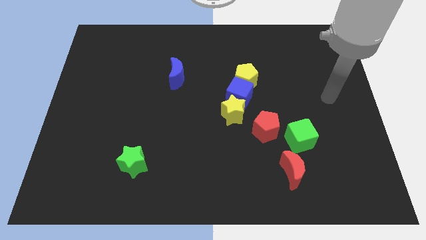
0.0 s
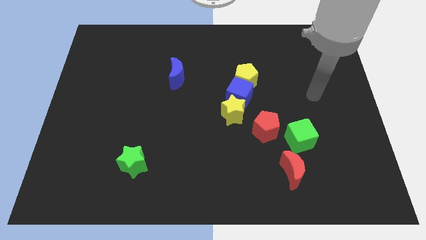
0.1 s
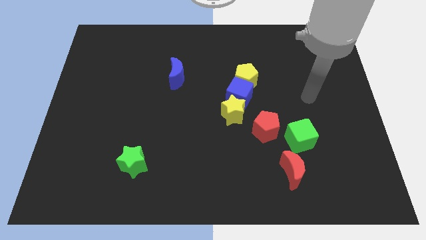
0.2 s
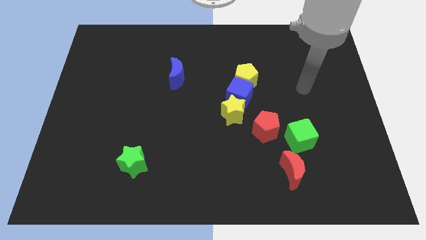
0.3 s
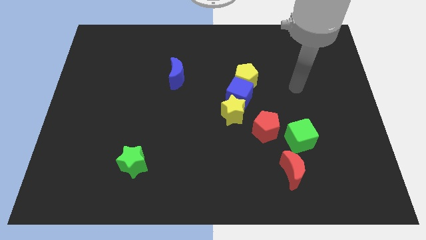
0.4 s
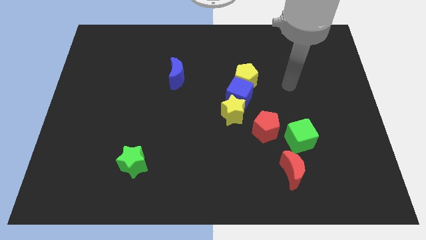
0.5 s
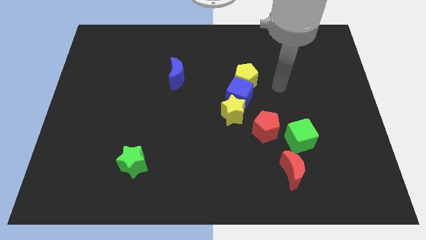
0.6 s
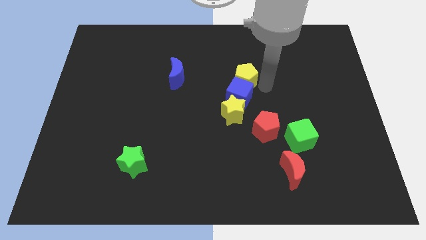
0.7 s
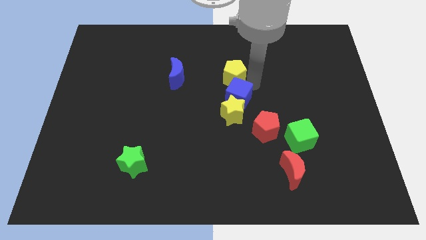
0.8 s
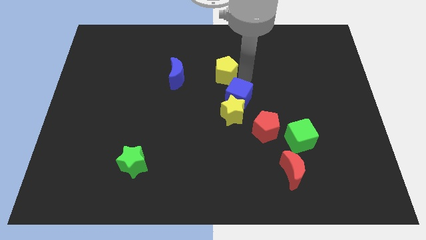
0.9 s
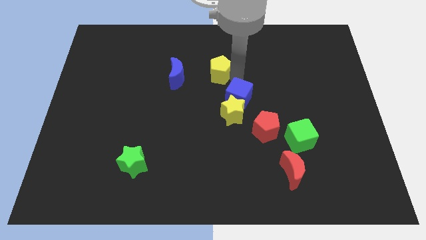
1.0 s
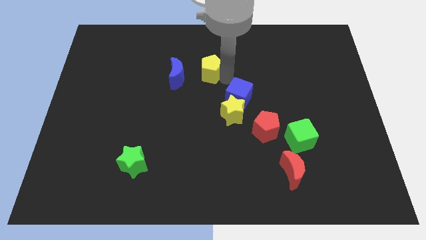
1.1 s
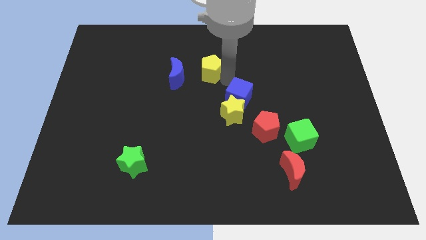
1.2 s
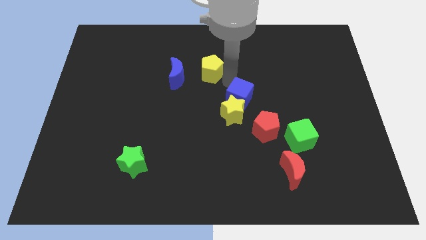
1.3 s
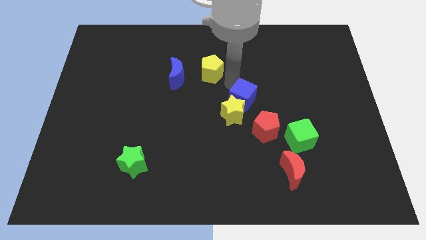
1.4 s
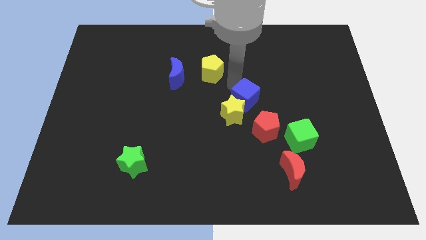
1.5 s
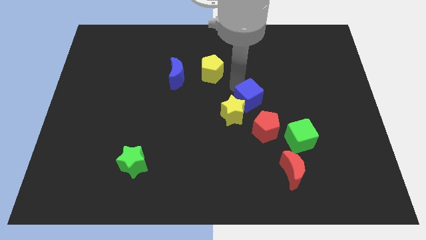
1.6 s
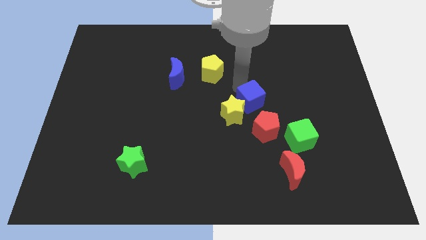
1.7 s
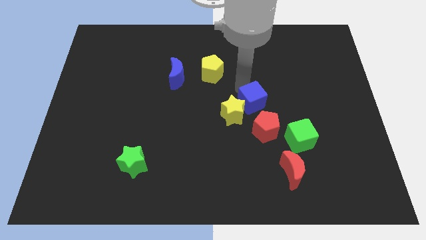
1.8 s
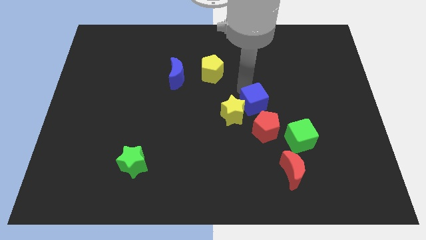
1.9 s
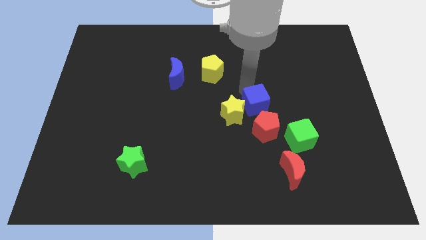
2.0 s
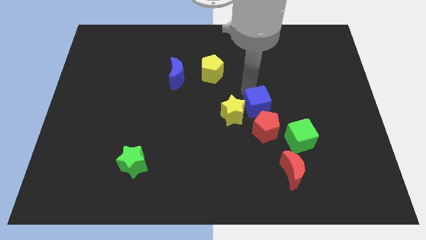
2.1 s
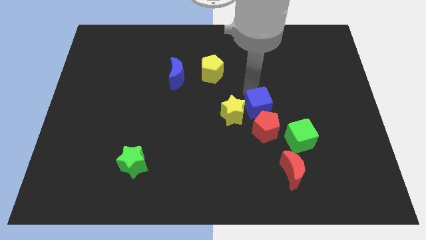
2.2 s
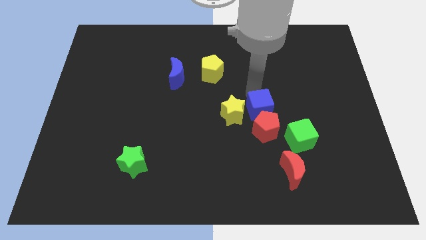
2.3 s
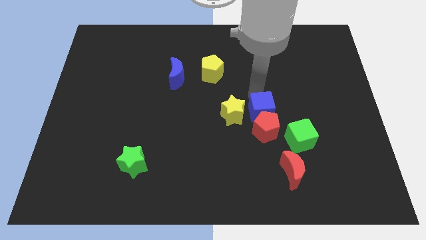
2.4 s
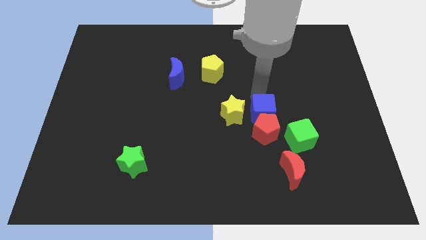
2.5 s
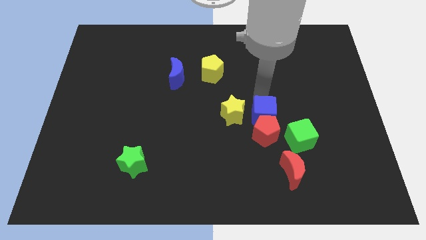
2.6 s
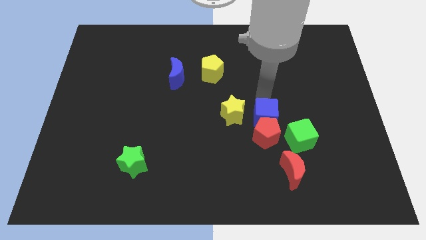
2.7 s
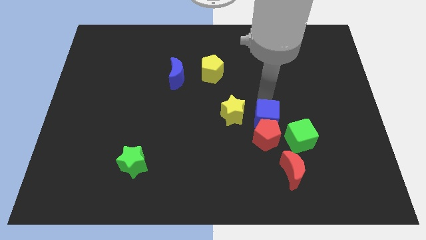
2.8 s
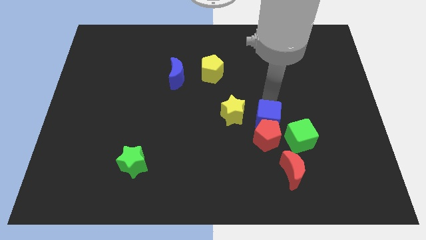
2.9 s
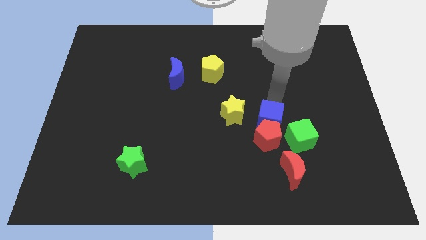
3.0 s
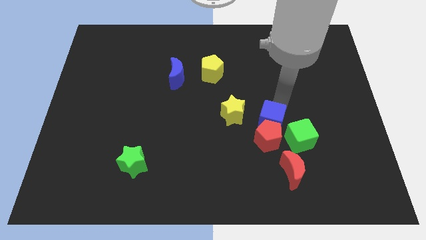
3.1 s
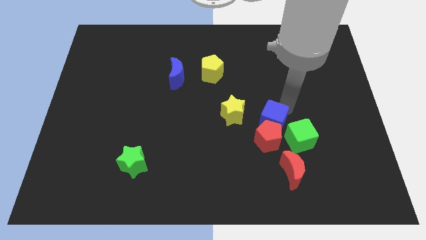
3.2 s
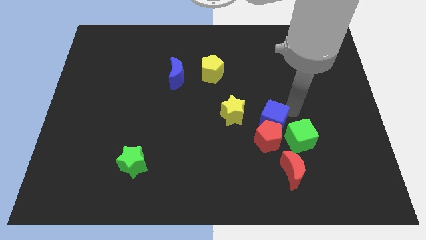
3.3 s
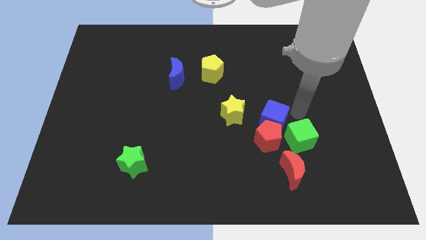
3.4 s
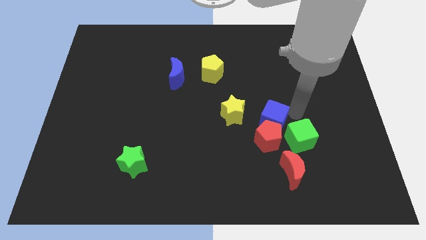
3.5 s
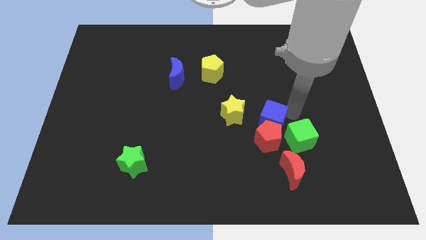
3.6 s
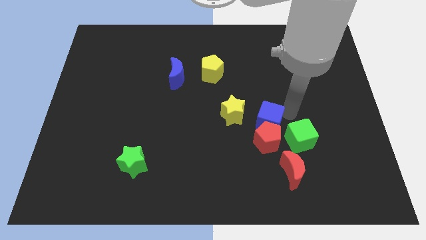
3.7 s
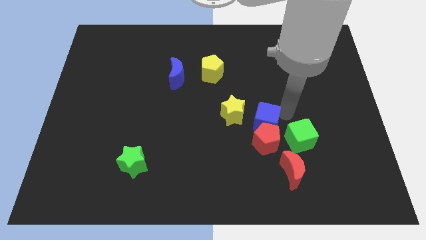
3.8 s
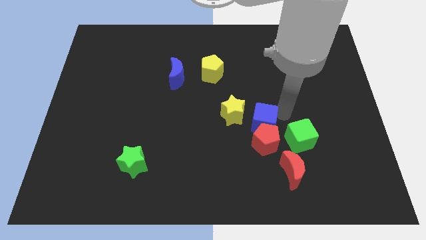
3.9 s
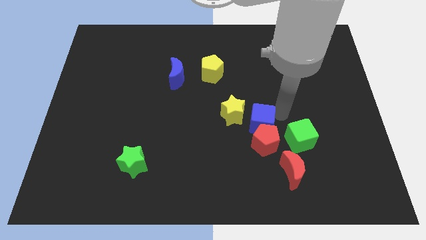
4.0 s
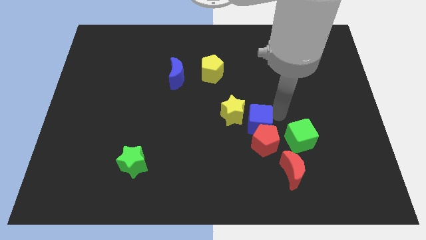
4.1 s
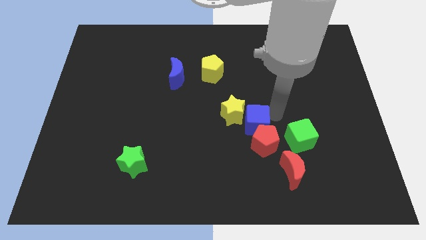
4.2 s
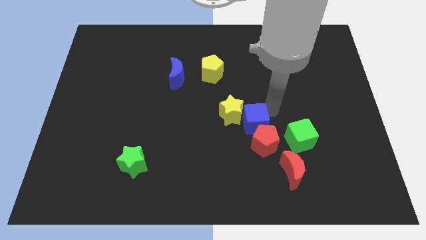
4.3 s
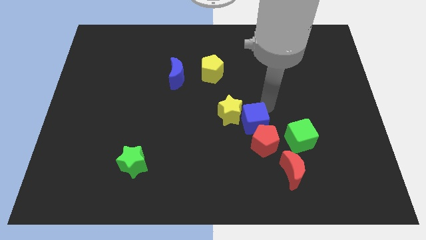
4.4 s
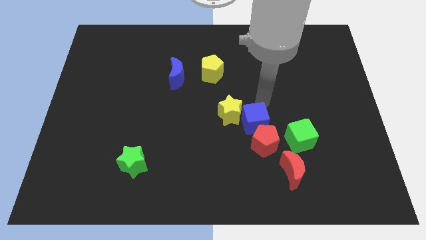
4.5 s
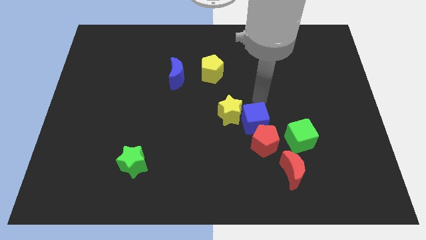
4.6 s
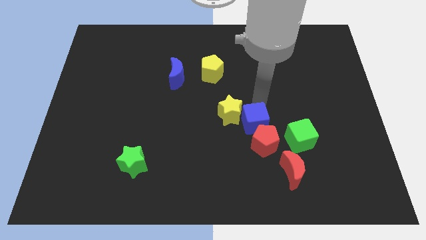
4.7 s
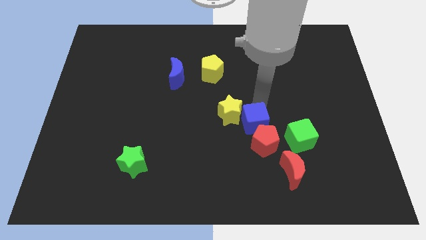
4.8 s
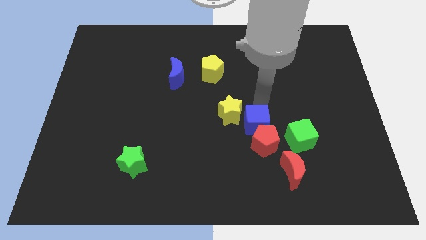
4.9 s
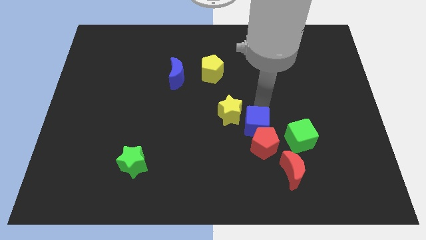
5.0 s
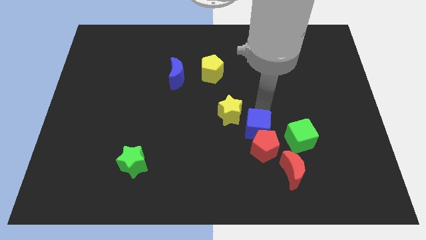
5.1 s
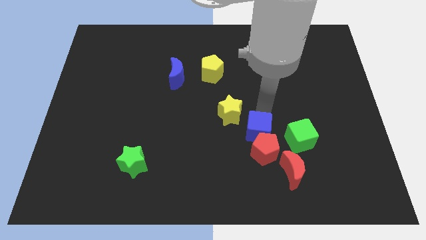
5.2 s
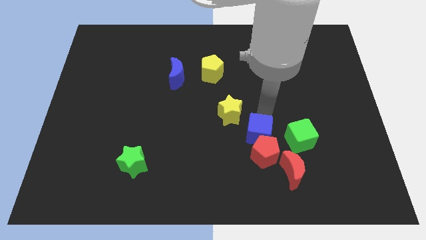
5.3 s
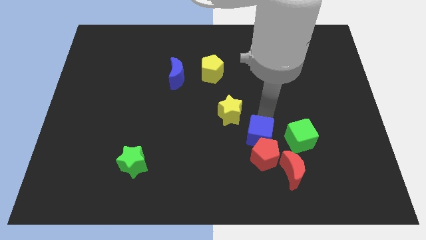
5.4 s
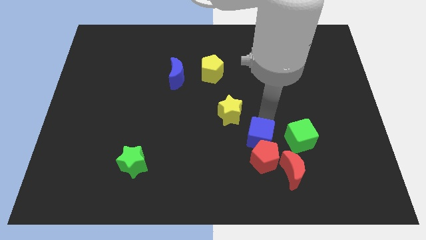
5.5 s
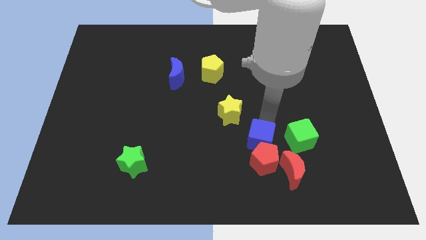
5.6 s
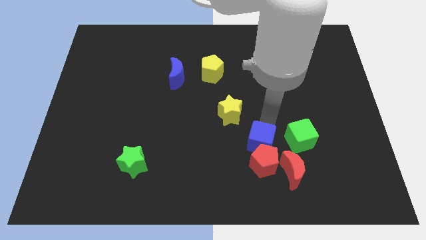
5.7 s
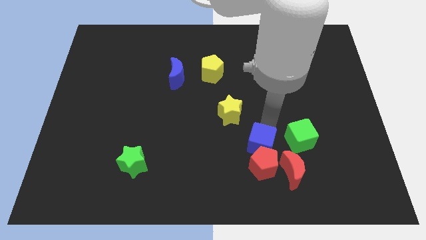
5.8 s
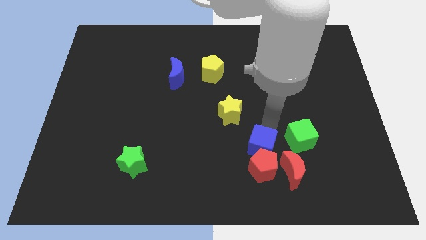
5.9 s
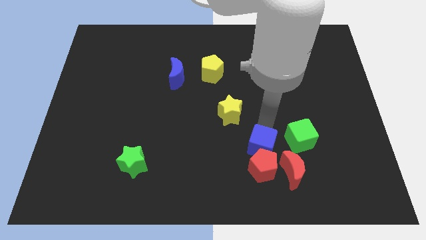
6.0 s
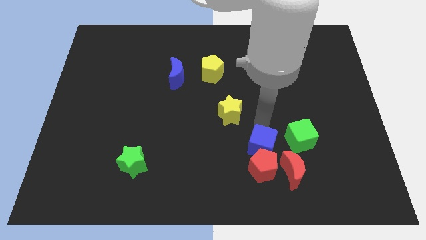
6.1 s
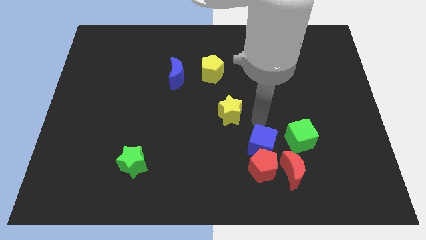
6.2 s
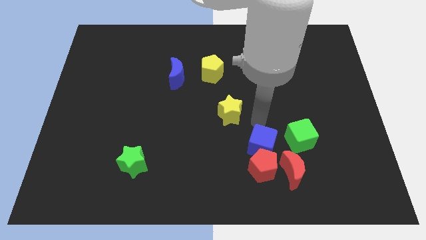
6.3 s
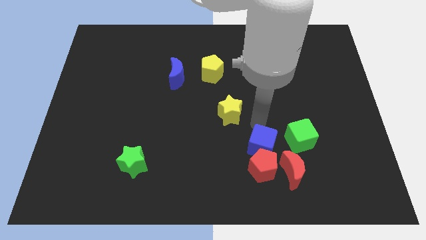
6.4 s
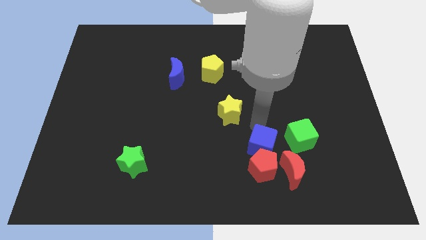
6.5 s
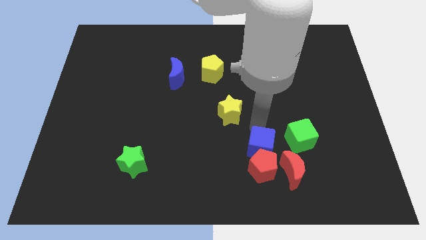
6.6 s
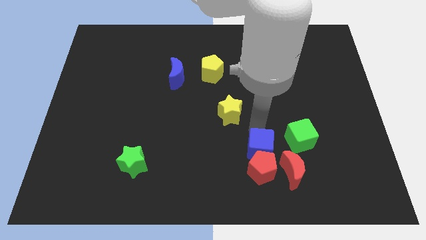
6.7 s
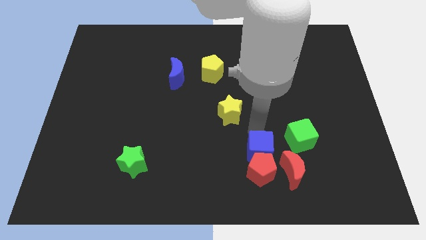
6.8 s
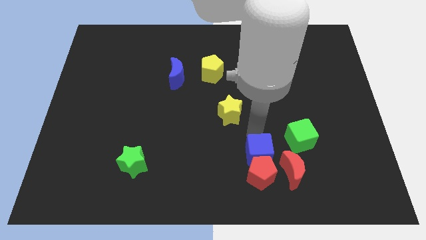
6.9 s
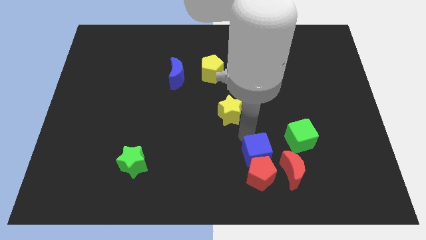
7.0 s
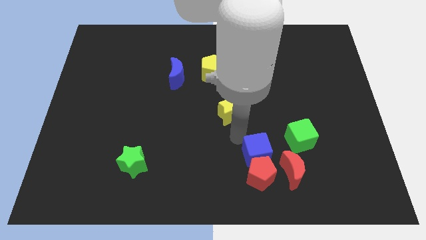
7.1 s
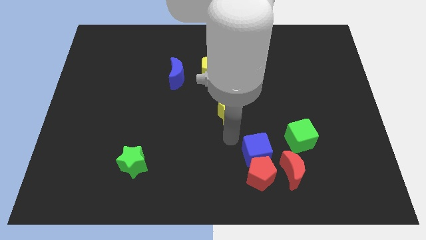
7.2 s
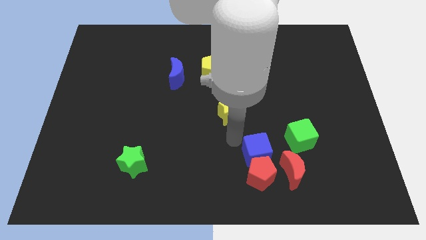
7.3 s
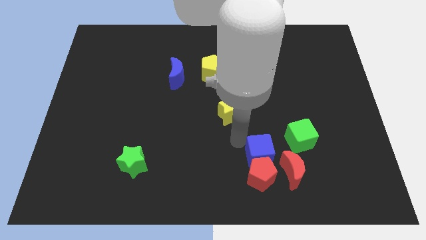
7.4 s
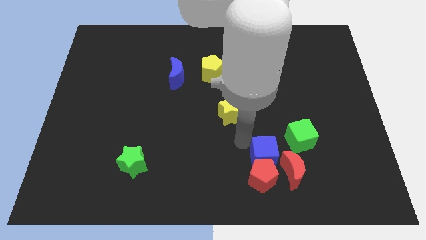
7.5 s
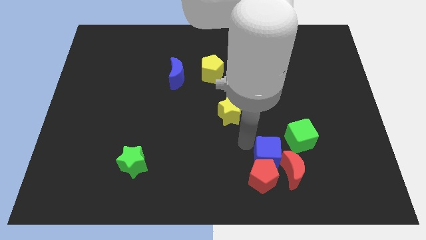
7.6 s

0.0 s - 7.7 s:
slide the blue cube next to the red moon
